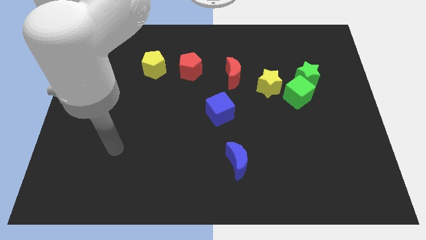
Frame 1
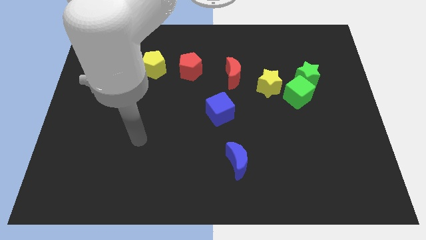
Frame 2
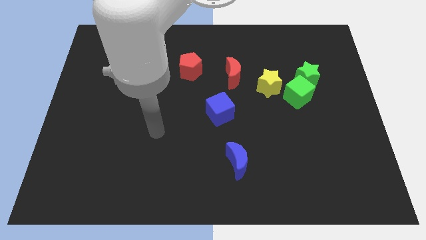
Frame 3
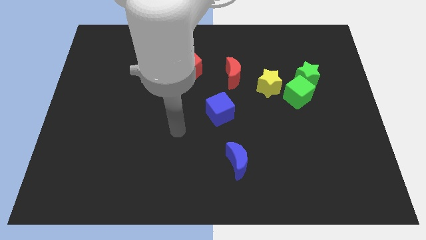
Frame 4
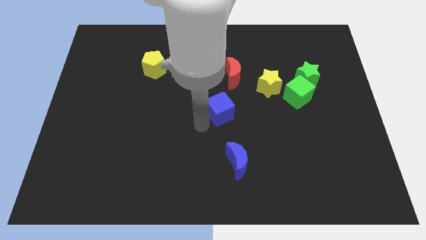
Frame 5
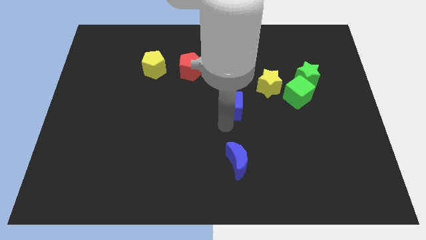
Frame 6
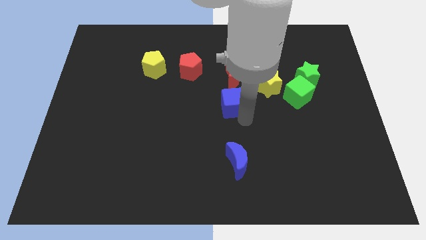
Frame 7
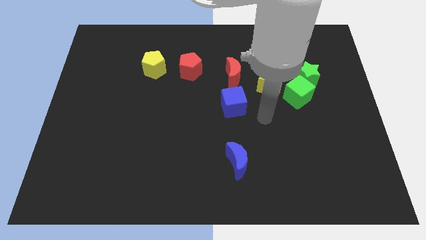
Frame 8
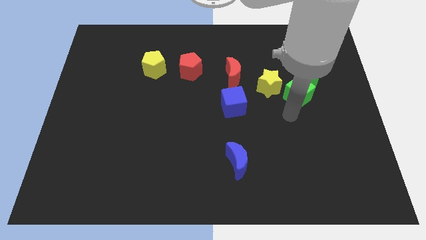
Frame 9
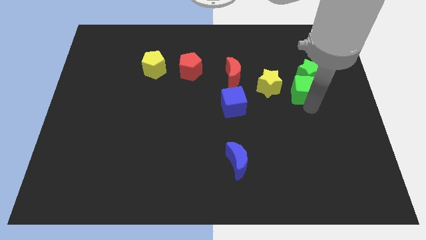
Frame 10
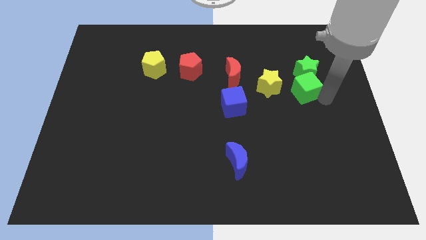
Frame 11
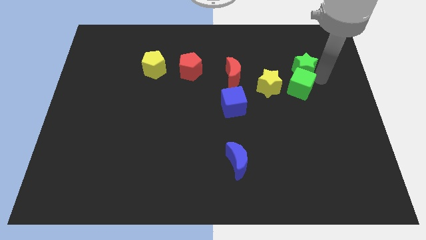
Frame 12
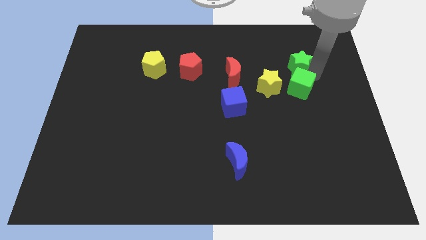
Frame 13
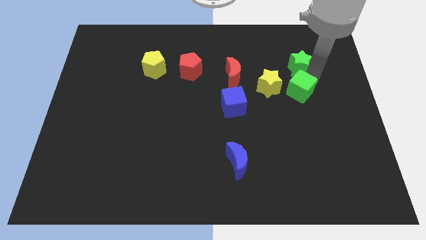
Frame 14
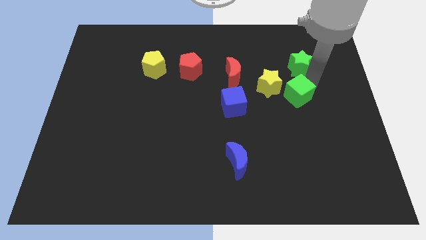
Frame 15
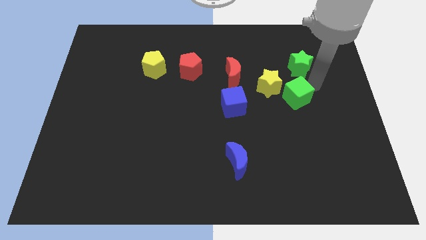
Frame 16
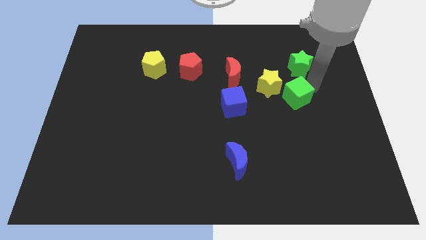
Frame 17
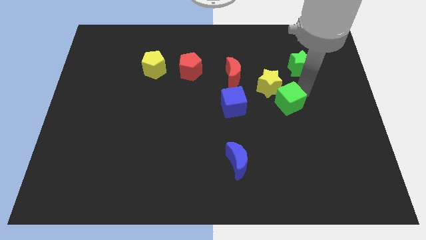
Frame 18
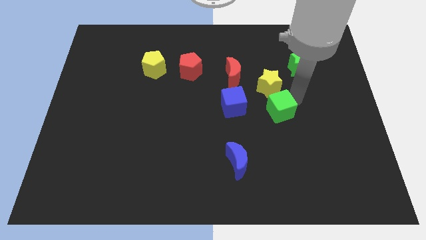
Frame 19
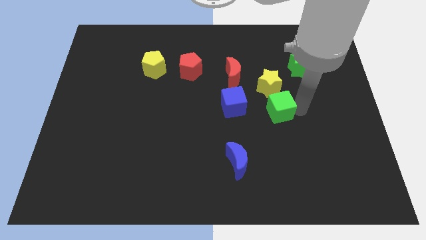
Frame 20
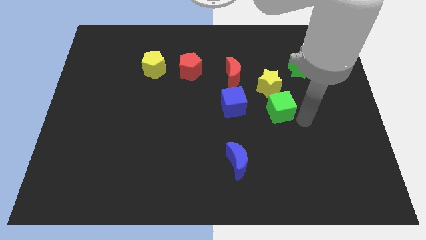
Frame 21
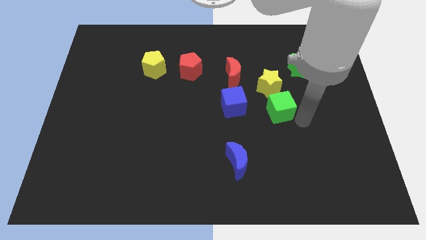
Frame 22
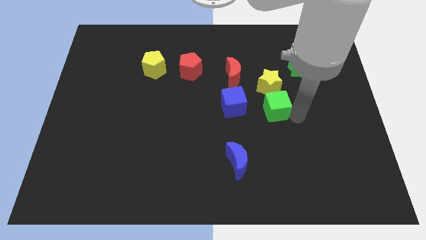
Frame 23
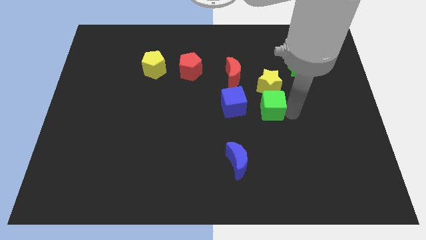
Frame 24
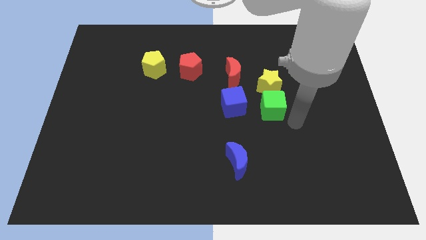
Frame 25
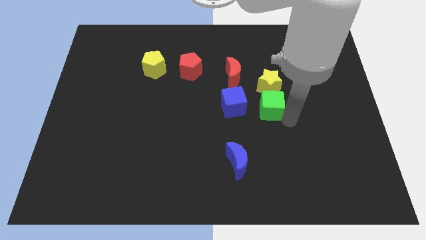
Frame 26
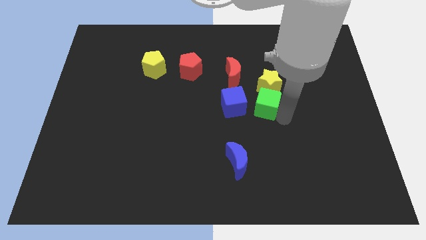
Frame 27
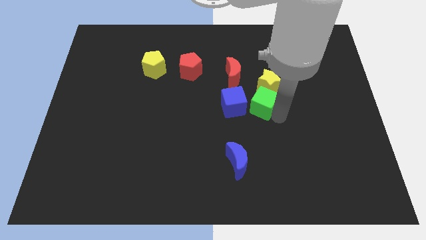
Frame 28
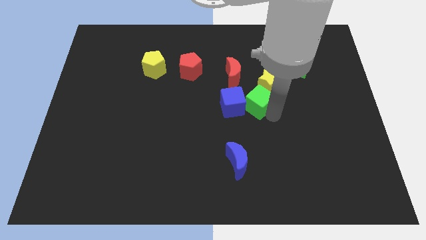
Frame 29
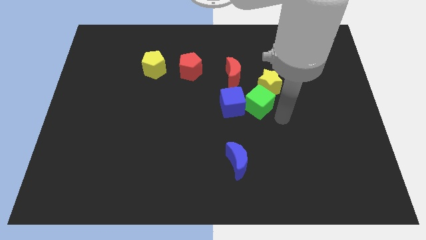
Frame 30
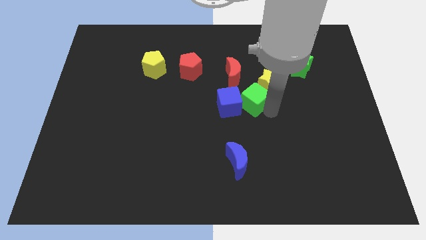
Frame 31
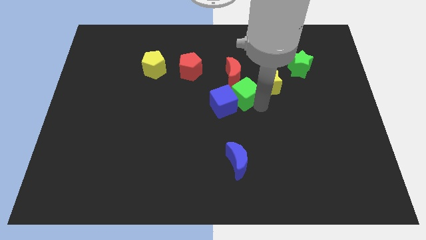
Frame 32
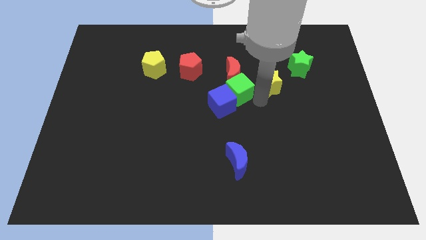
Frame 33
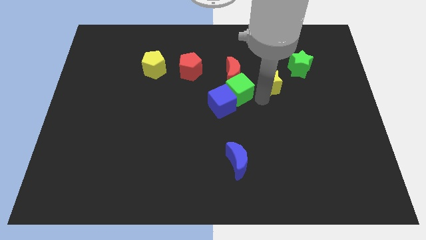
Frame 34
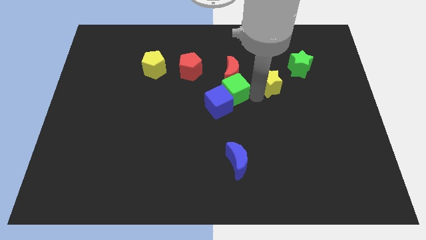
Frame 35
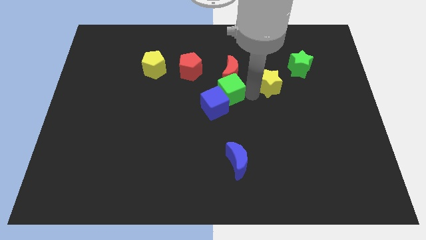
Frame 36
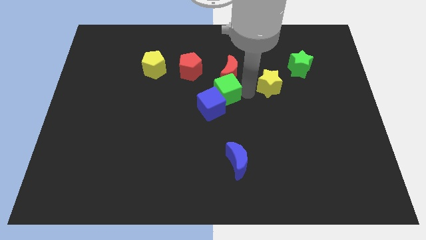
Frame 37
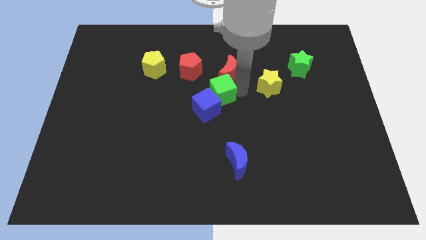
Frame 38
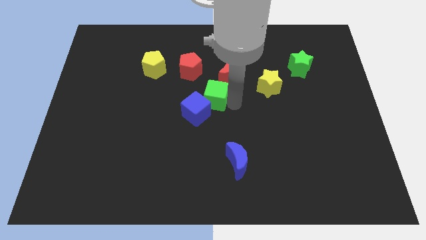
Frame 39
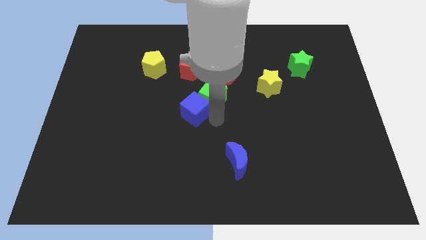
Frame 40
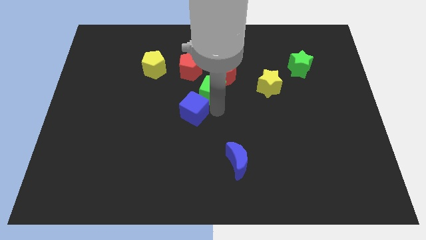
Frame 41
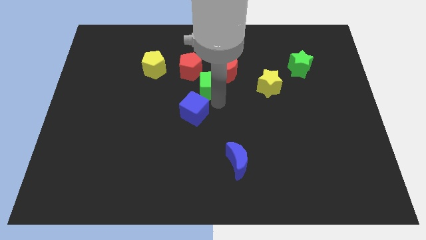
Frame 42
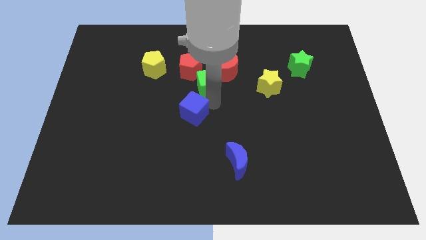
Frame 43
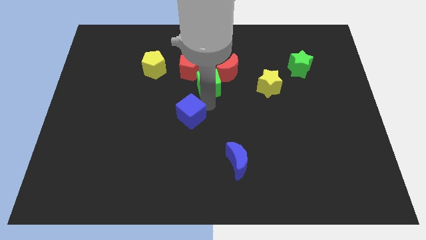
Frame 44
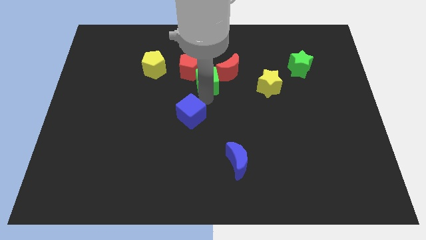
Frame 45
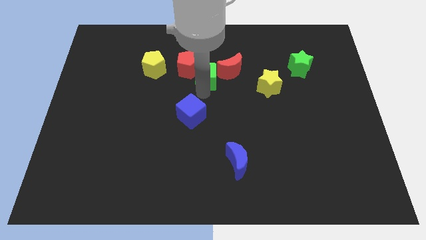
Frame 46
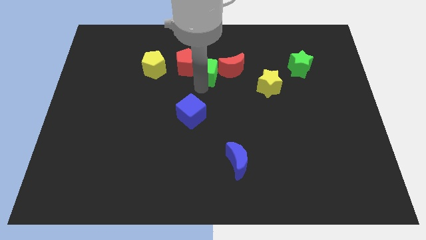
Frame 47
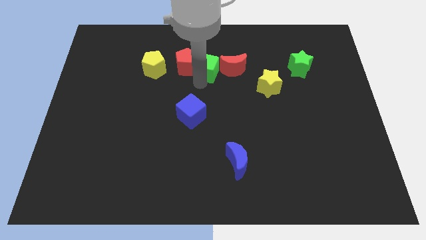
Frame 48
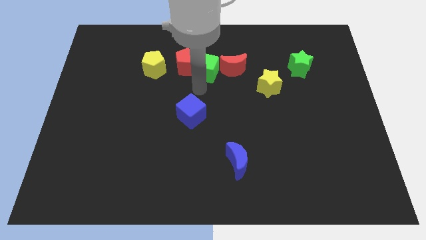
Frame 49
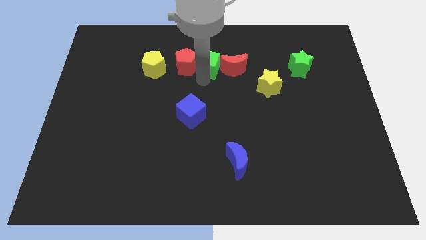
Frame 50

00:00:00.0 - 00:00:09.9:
slide the green cube to the top left side of the red moon

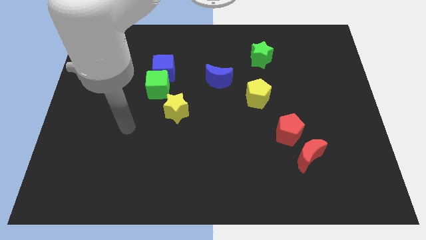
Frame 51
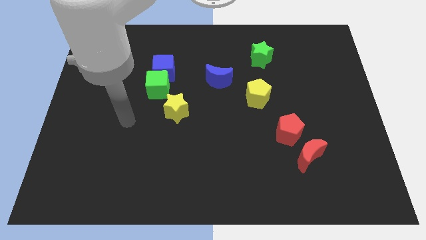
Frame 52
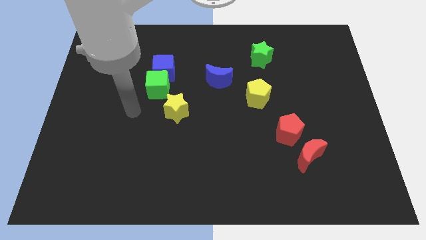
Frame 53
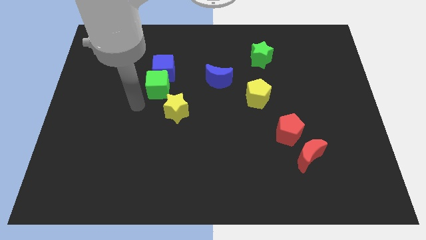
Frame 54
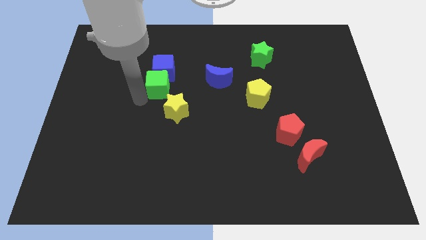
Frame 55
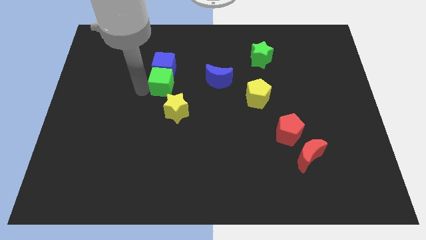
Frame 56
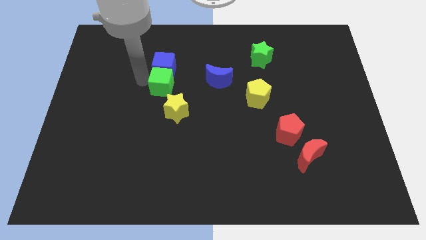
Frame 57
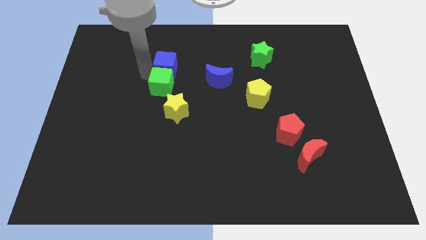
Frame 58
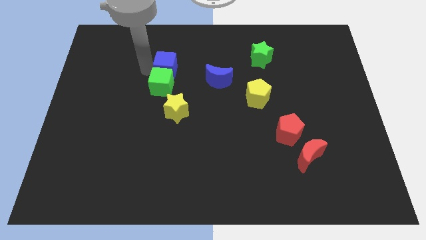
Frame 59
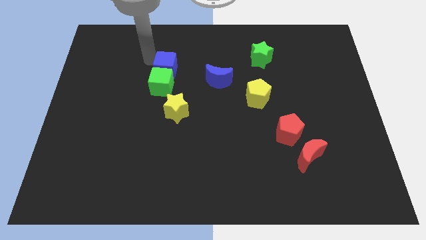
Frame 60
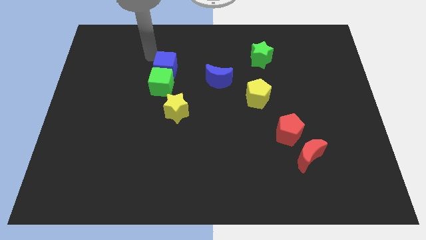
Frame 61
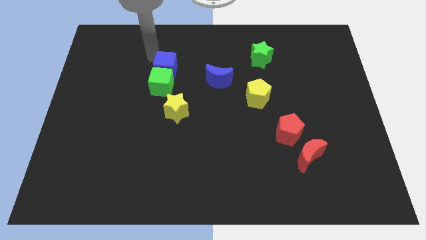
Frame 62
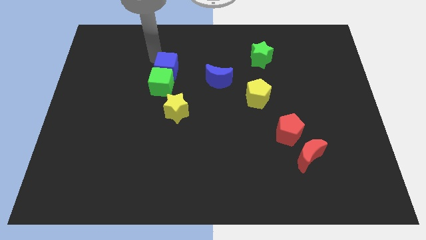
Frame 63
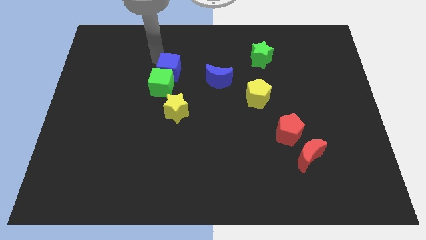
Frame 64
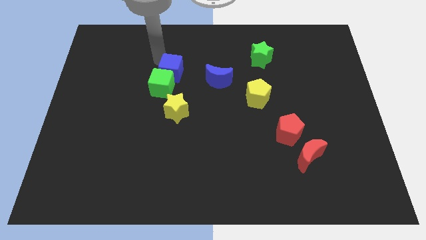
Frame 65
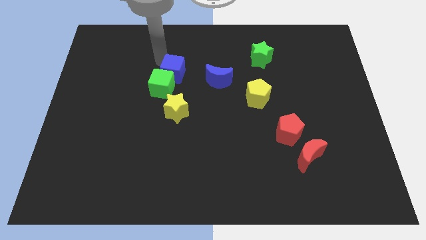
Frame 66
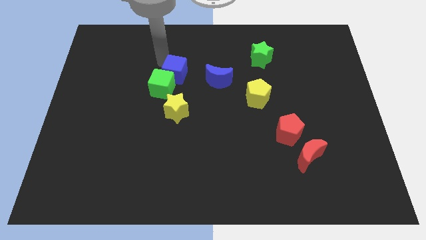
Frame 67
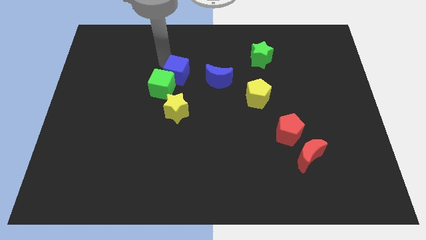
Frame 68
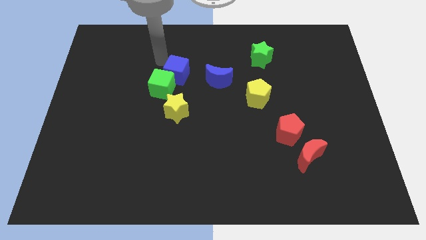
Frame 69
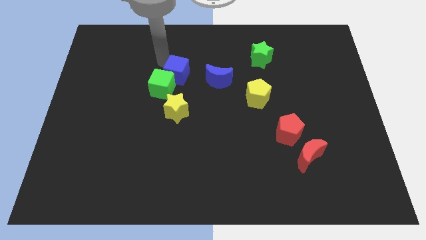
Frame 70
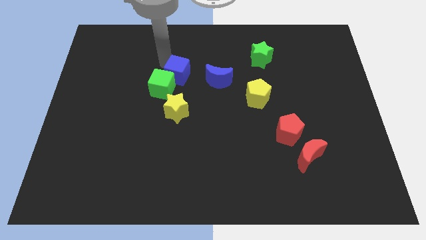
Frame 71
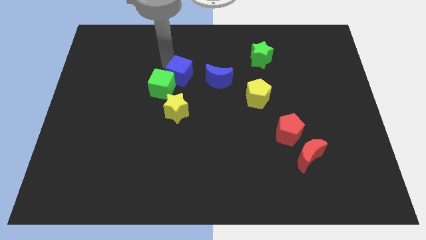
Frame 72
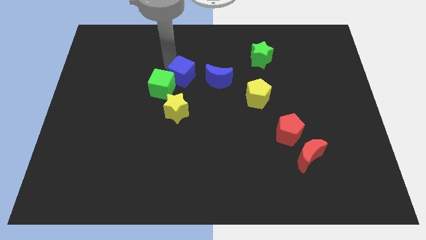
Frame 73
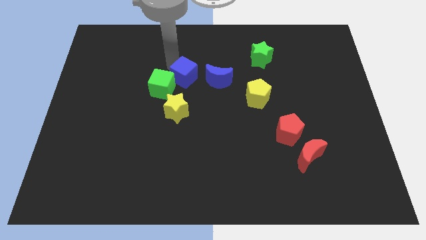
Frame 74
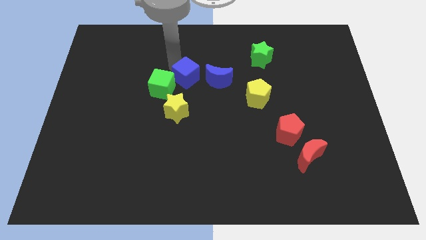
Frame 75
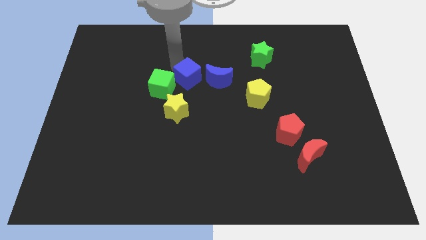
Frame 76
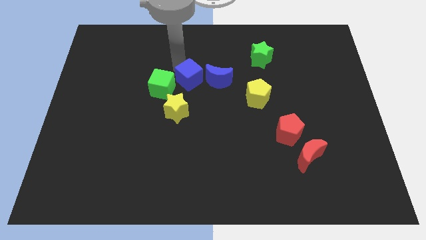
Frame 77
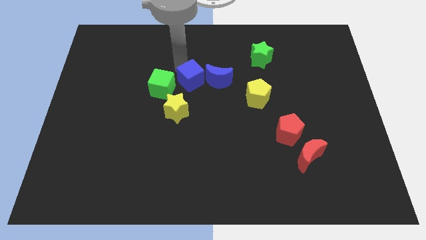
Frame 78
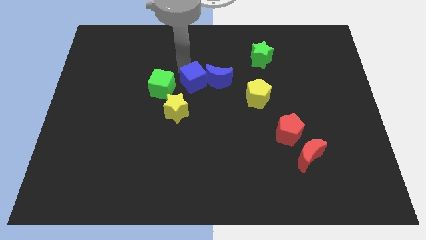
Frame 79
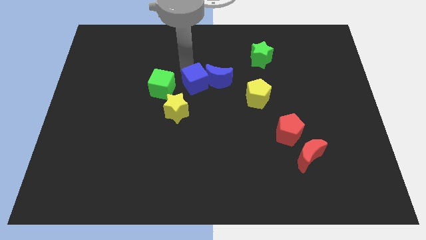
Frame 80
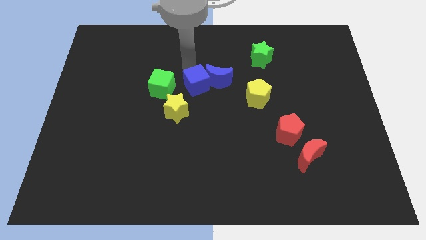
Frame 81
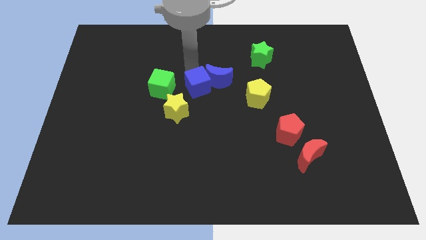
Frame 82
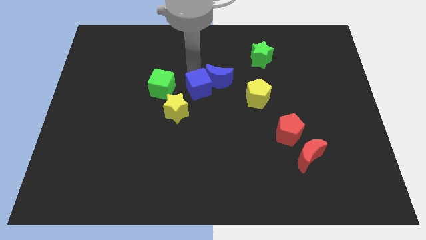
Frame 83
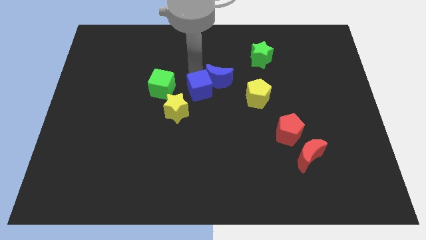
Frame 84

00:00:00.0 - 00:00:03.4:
put the blue cube to the bottom side of the blue moon
